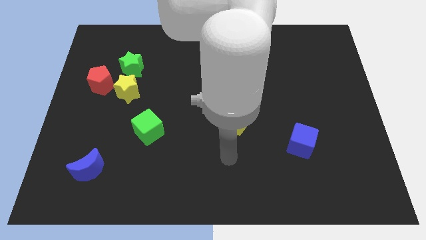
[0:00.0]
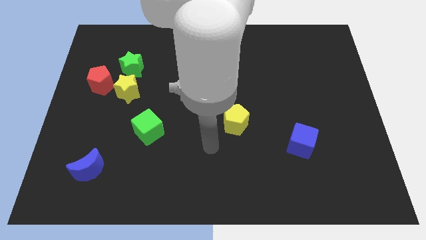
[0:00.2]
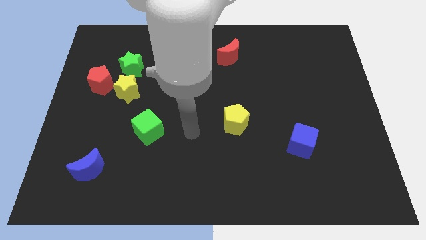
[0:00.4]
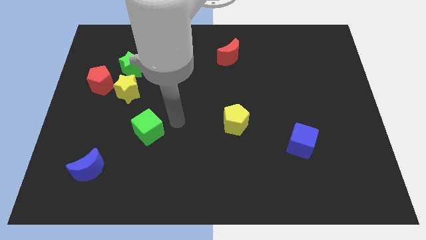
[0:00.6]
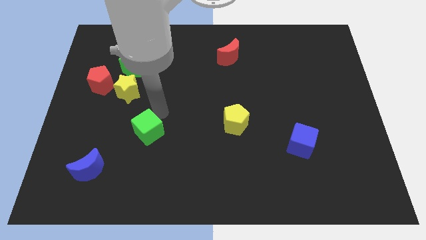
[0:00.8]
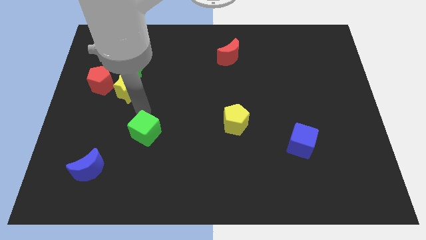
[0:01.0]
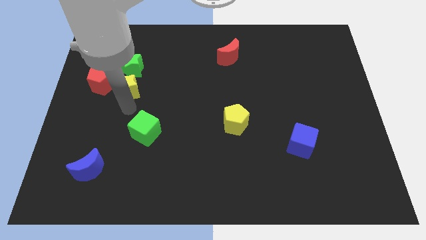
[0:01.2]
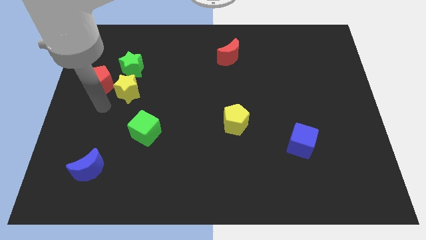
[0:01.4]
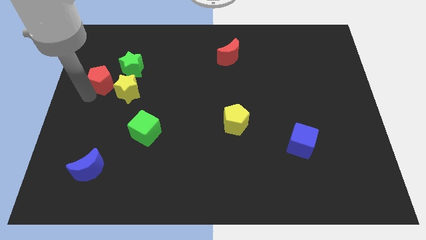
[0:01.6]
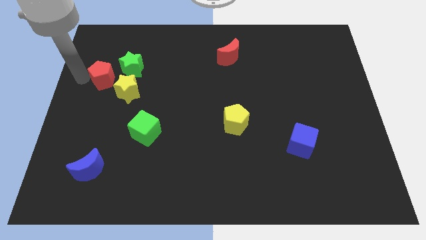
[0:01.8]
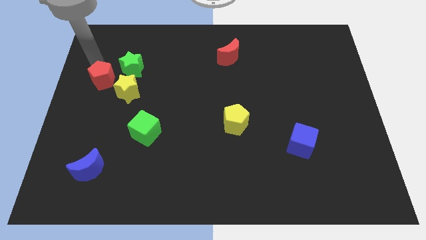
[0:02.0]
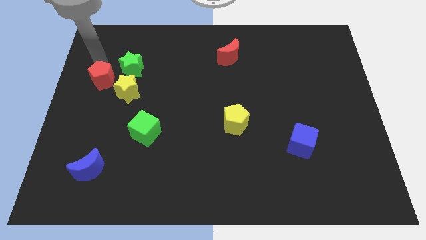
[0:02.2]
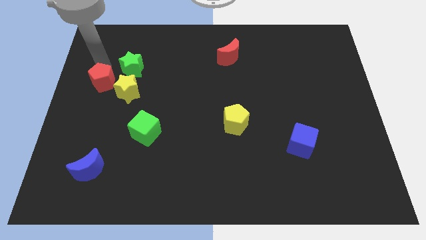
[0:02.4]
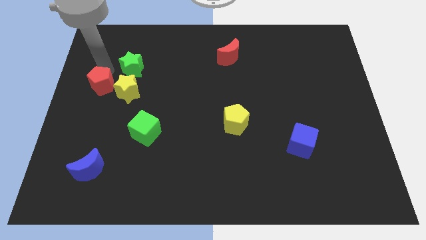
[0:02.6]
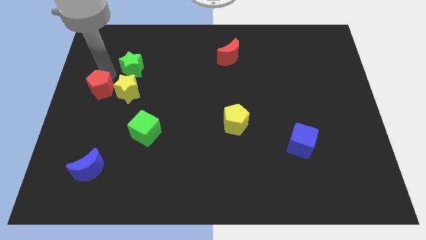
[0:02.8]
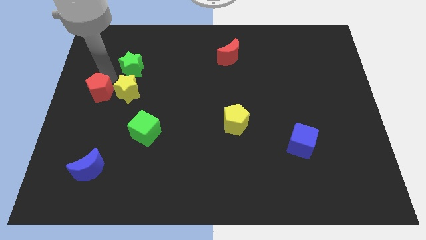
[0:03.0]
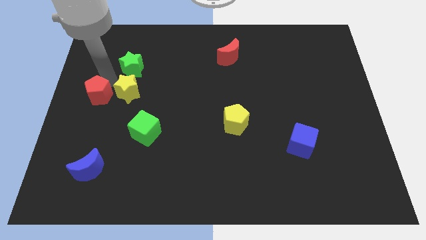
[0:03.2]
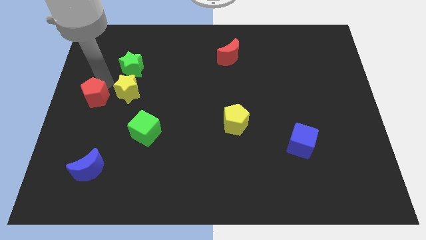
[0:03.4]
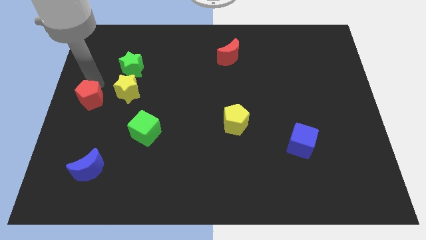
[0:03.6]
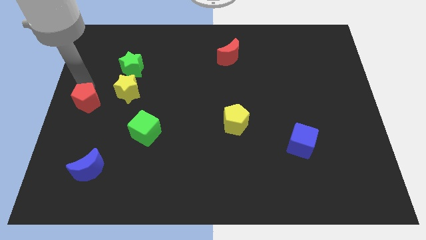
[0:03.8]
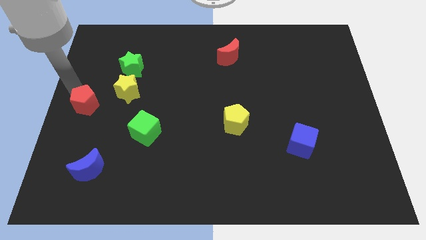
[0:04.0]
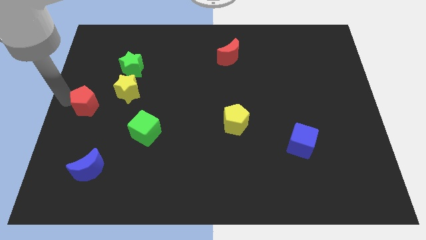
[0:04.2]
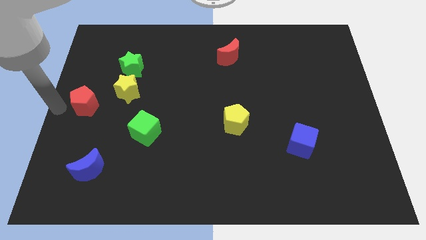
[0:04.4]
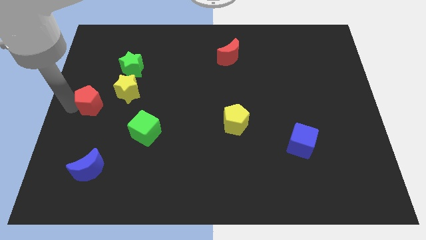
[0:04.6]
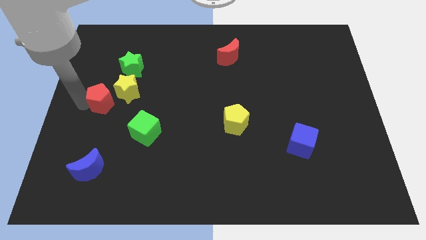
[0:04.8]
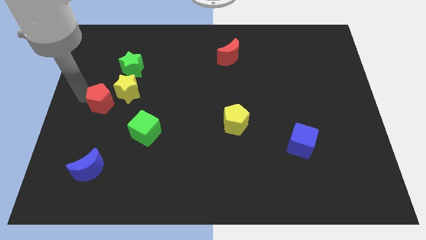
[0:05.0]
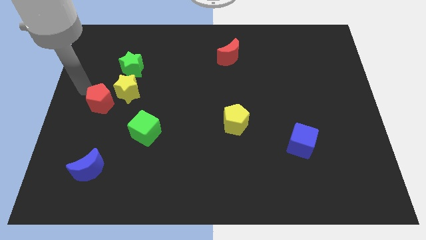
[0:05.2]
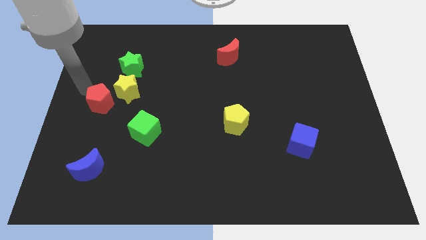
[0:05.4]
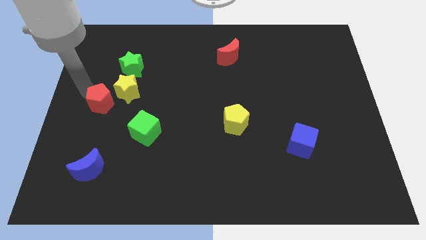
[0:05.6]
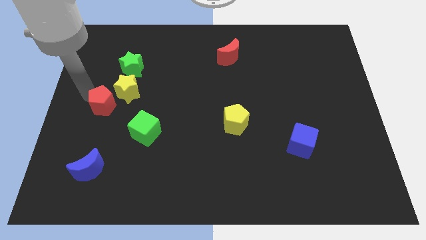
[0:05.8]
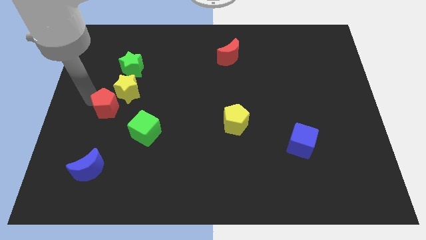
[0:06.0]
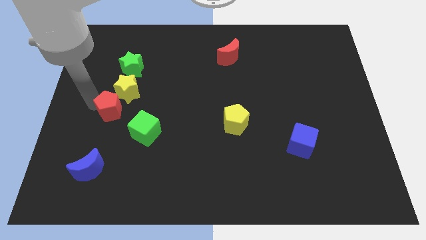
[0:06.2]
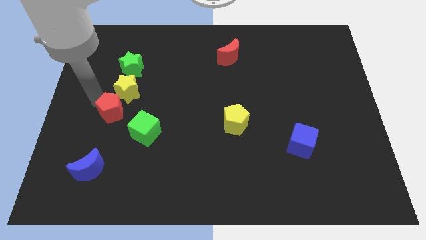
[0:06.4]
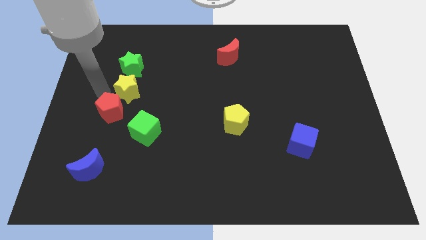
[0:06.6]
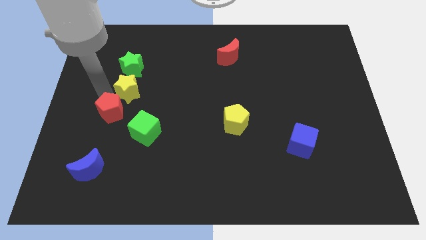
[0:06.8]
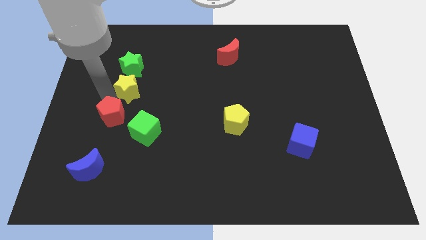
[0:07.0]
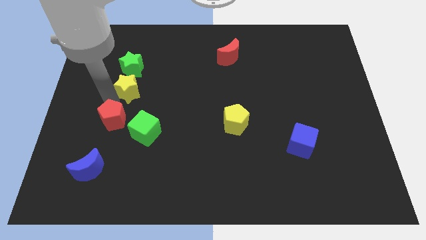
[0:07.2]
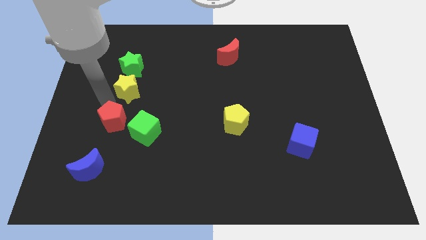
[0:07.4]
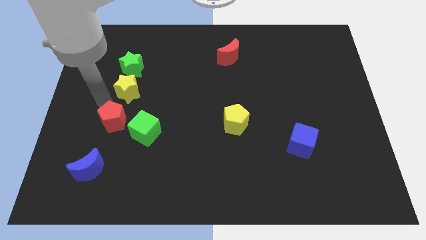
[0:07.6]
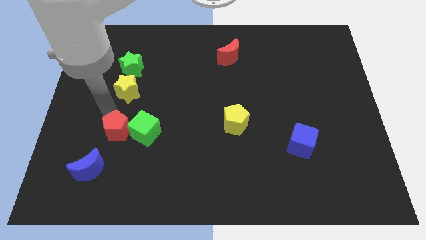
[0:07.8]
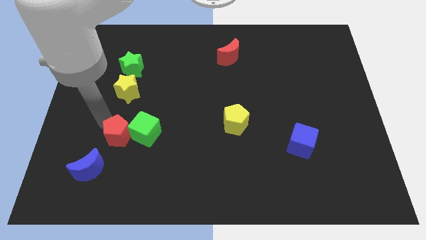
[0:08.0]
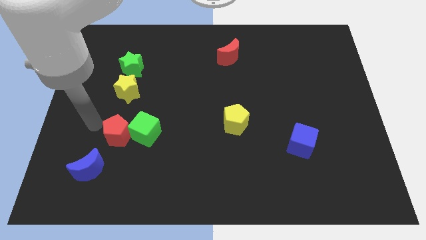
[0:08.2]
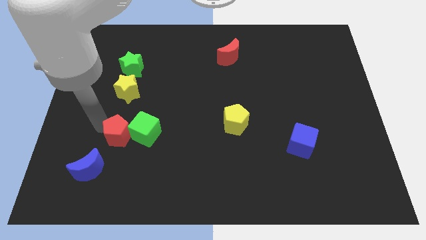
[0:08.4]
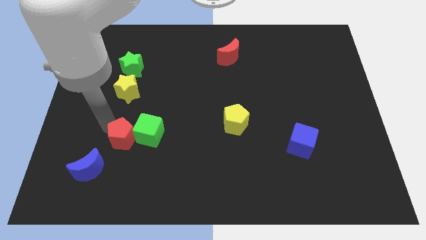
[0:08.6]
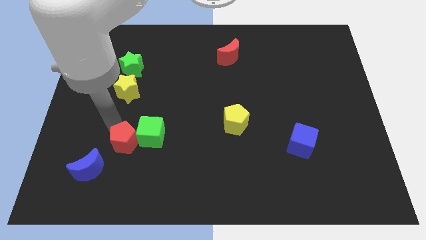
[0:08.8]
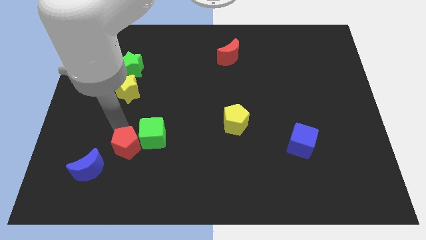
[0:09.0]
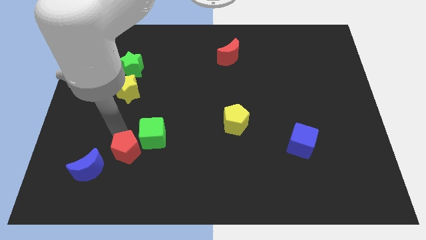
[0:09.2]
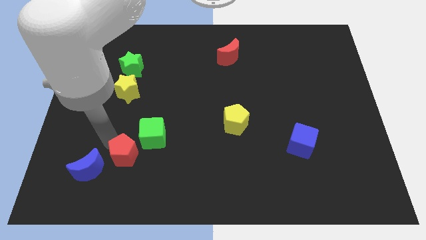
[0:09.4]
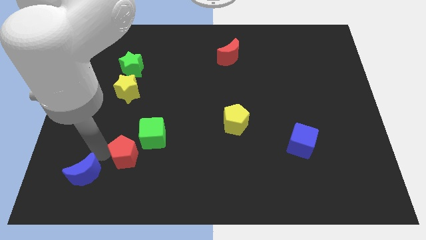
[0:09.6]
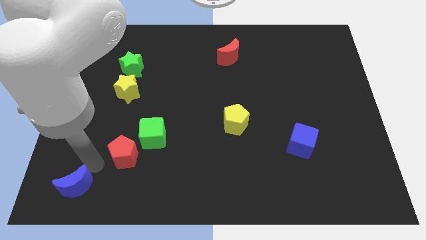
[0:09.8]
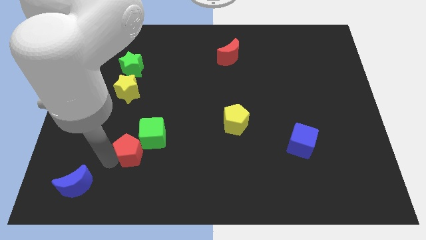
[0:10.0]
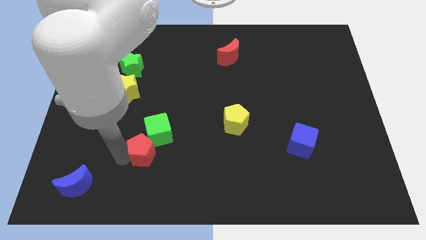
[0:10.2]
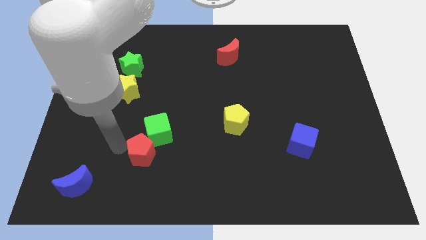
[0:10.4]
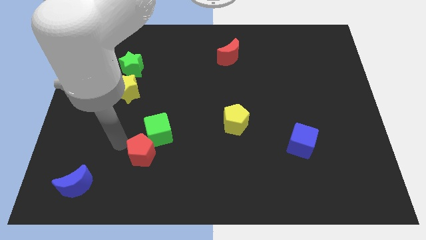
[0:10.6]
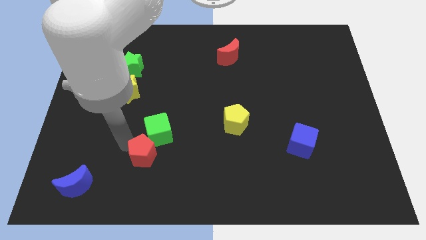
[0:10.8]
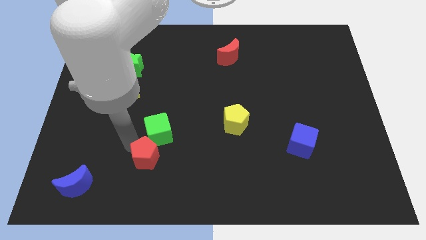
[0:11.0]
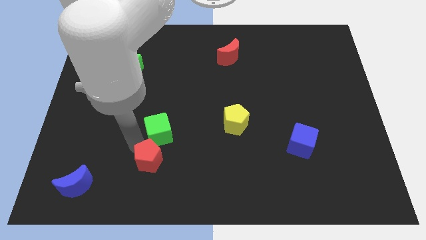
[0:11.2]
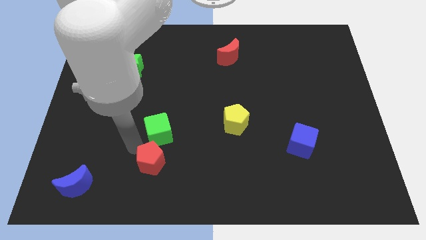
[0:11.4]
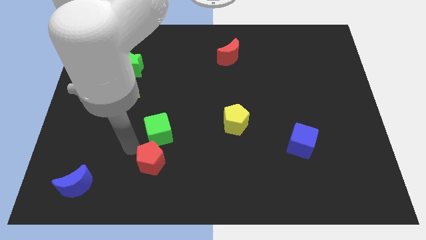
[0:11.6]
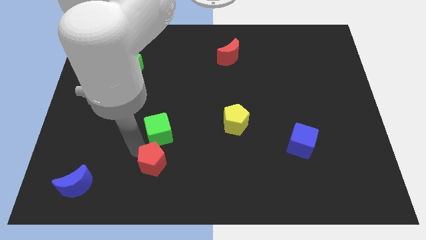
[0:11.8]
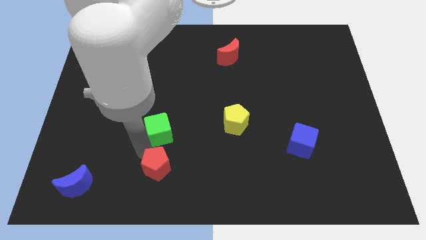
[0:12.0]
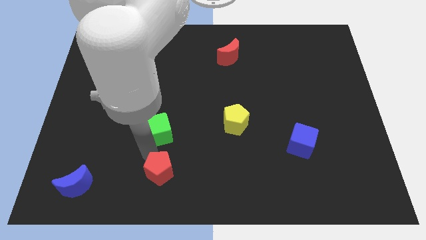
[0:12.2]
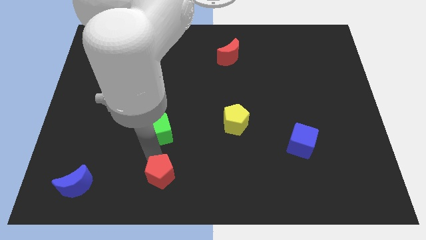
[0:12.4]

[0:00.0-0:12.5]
slide the red pentagon to the bottom side
